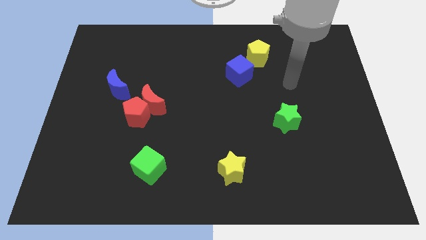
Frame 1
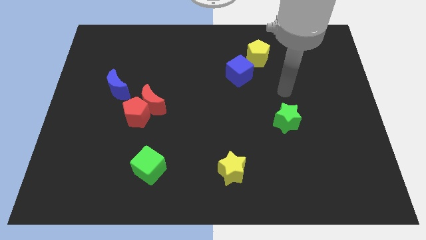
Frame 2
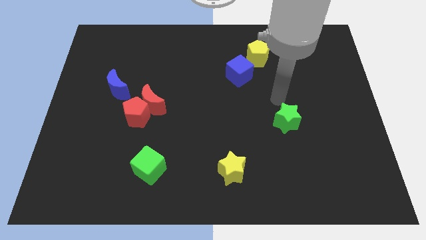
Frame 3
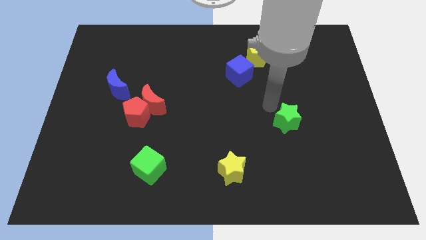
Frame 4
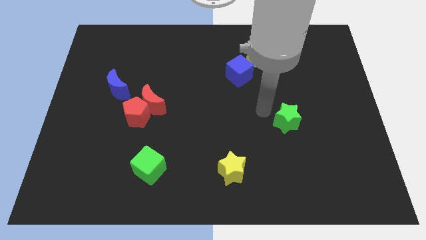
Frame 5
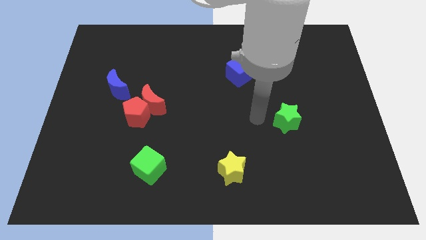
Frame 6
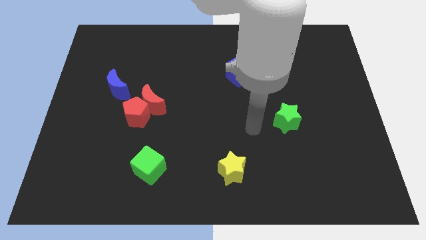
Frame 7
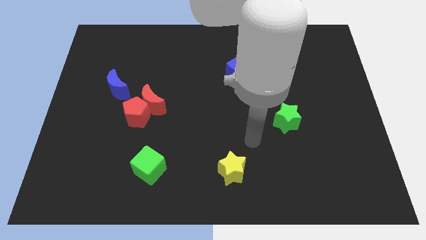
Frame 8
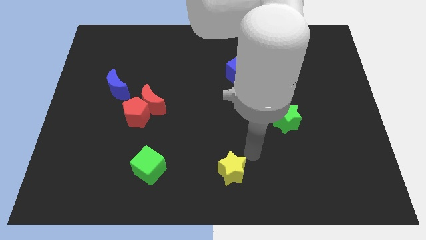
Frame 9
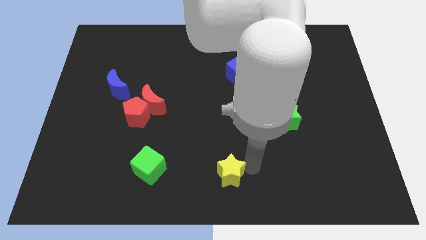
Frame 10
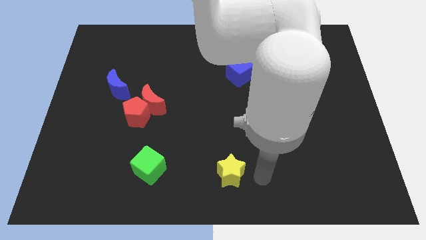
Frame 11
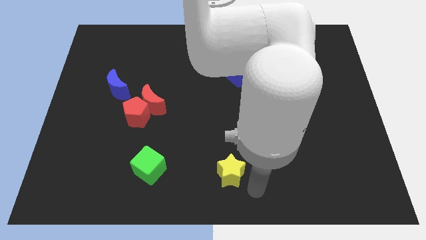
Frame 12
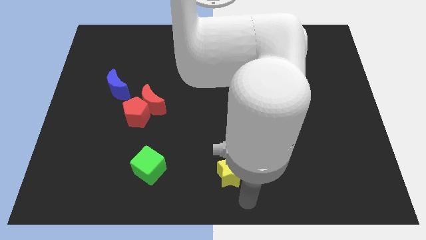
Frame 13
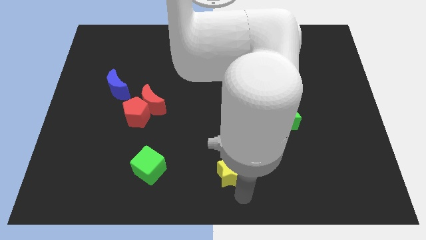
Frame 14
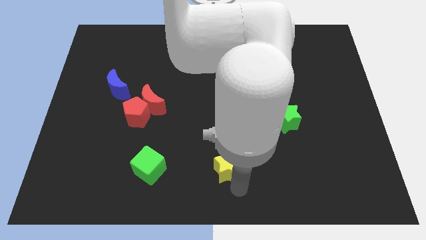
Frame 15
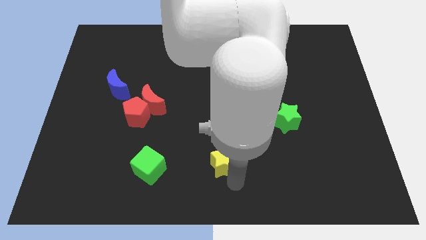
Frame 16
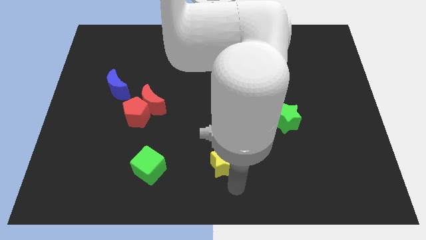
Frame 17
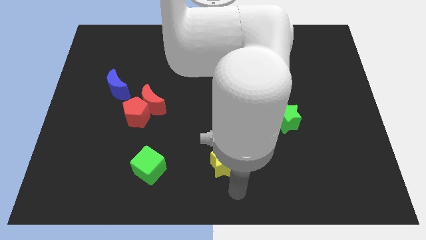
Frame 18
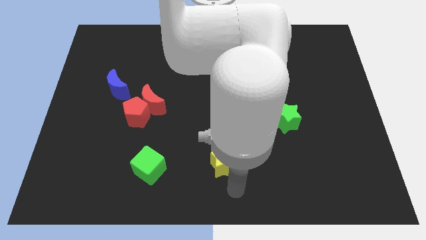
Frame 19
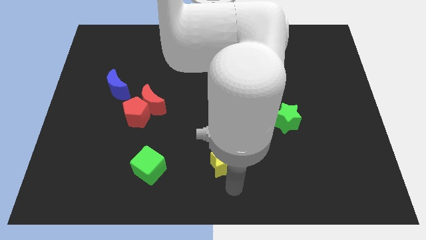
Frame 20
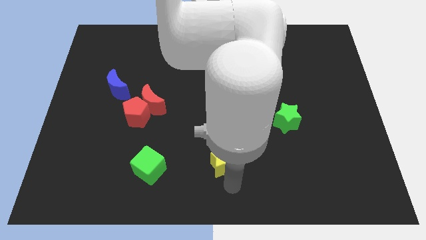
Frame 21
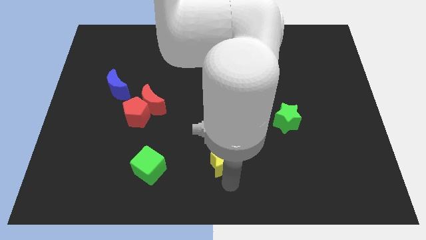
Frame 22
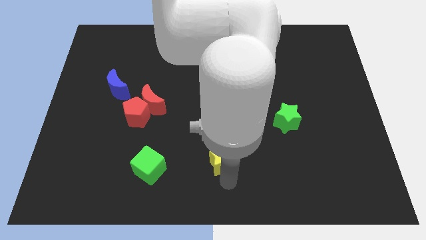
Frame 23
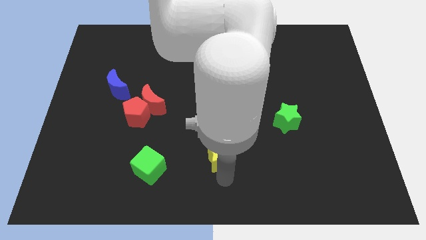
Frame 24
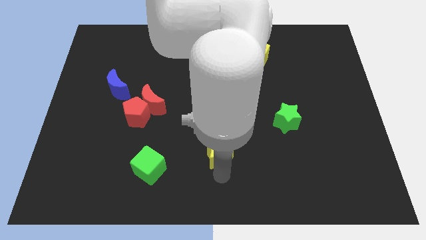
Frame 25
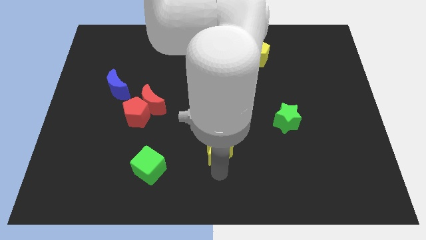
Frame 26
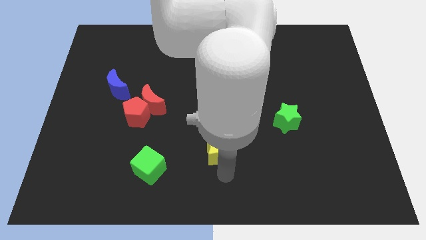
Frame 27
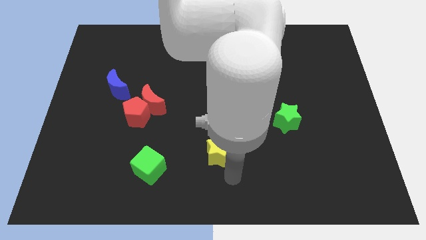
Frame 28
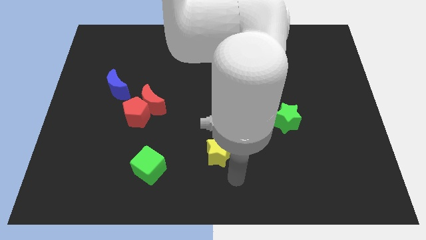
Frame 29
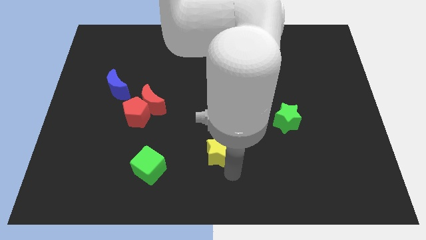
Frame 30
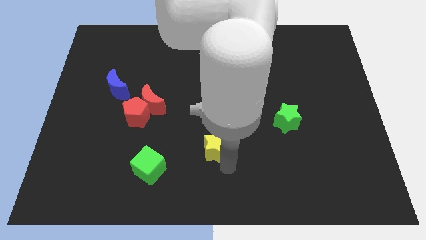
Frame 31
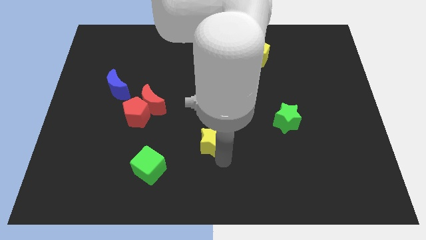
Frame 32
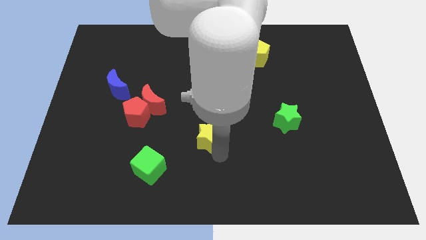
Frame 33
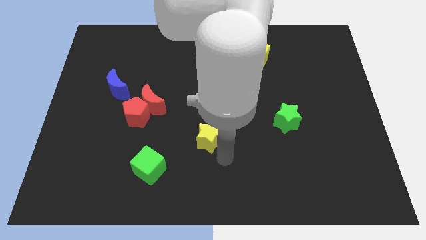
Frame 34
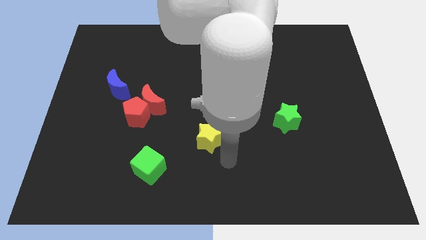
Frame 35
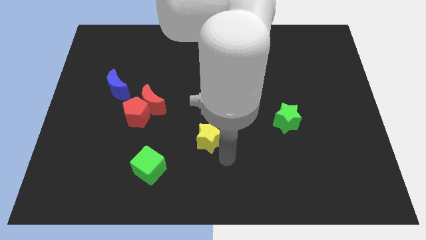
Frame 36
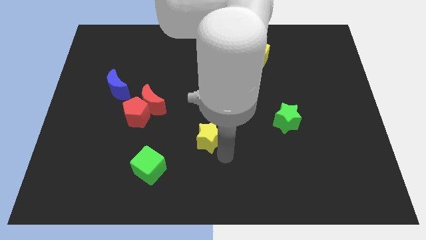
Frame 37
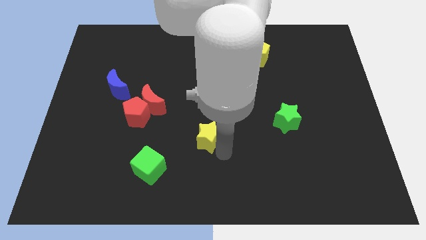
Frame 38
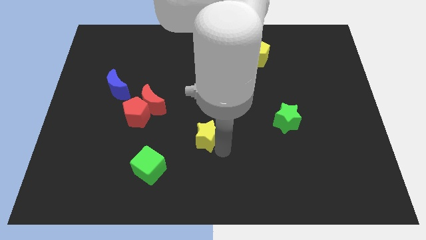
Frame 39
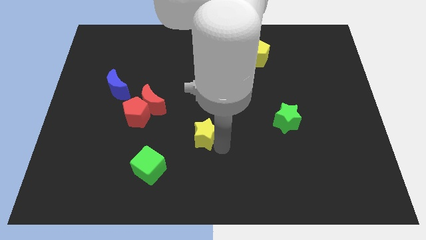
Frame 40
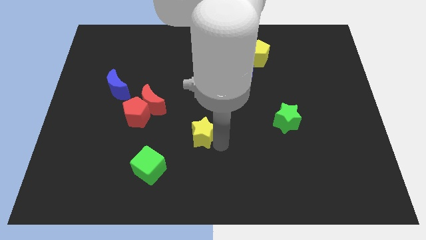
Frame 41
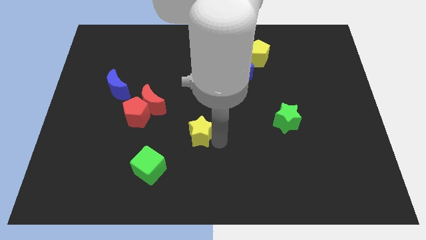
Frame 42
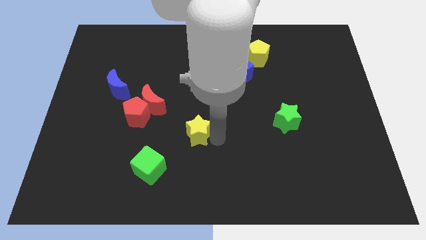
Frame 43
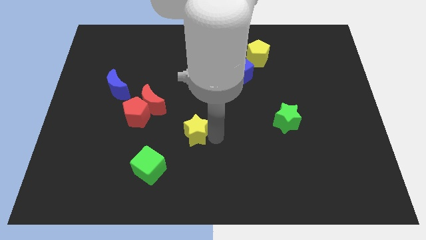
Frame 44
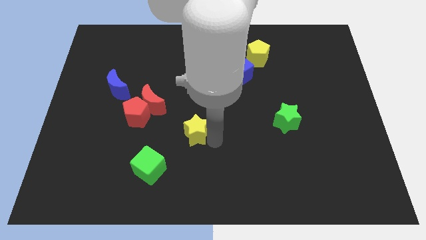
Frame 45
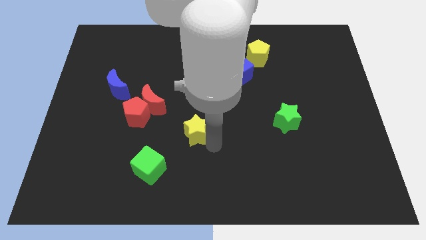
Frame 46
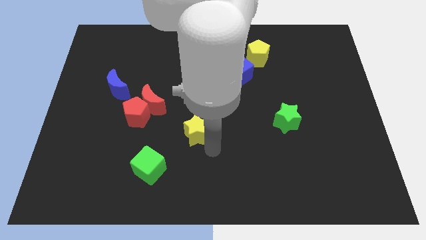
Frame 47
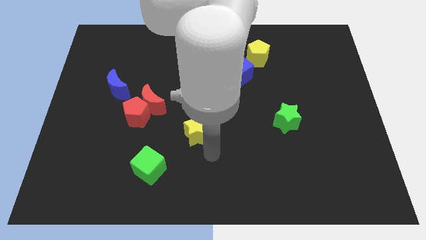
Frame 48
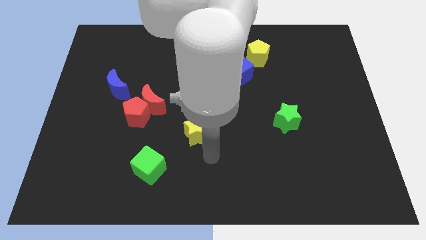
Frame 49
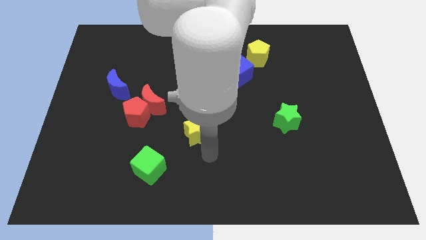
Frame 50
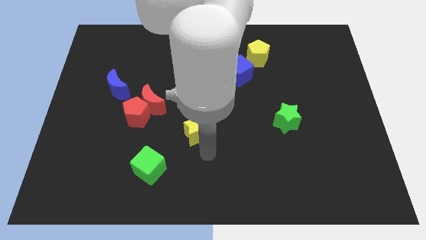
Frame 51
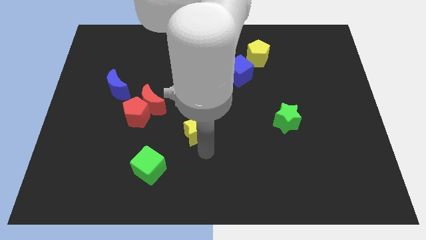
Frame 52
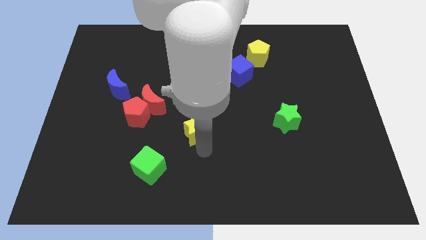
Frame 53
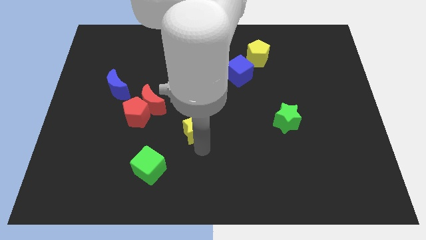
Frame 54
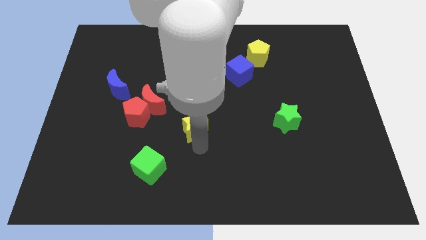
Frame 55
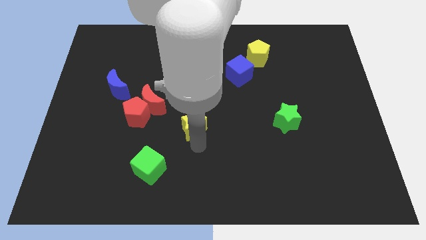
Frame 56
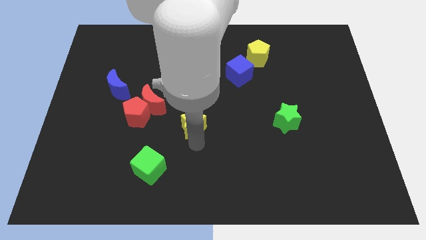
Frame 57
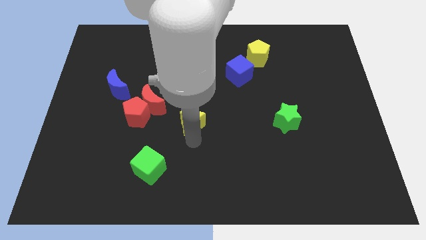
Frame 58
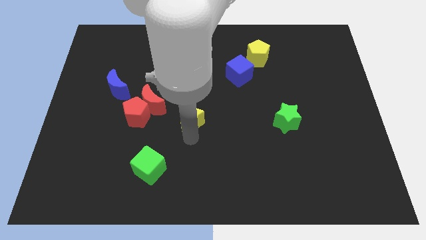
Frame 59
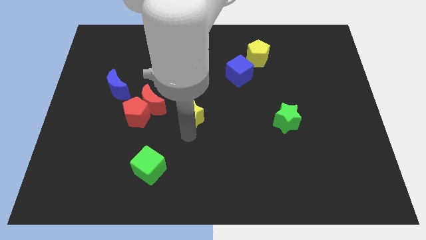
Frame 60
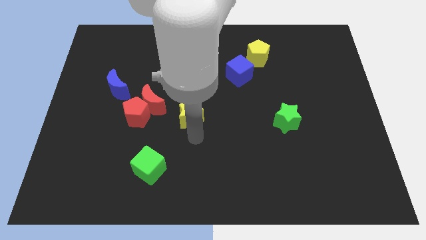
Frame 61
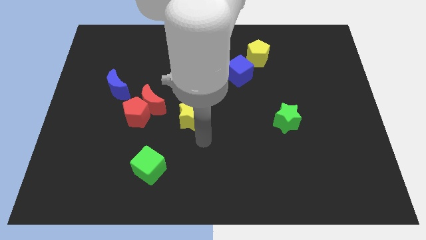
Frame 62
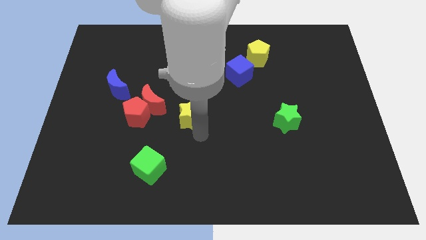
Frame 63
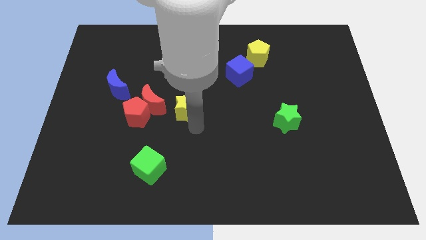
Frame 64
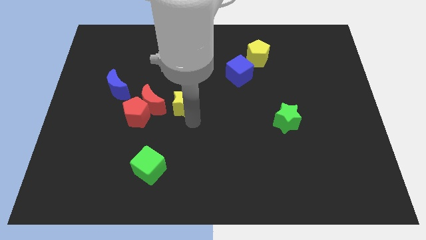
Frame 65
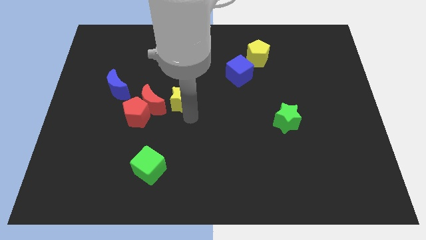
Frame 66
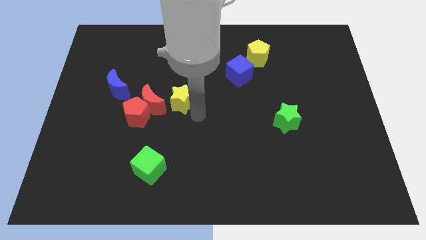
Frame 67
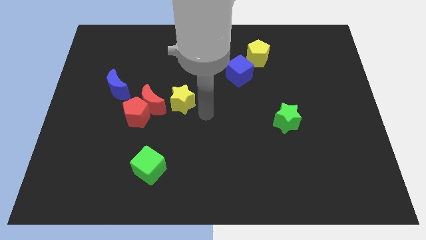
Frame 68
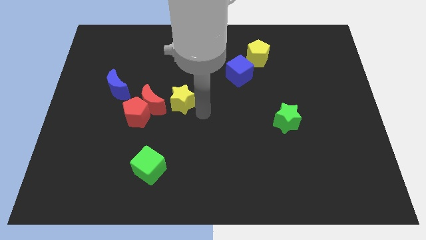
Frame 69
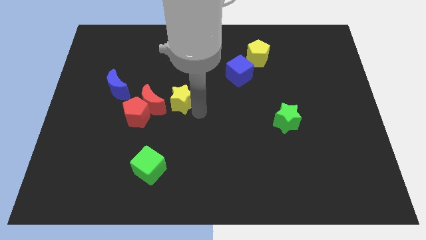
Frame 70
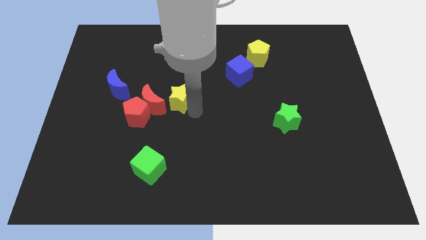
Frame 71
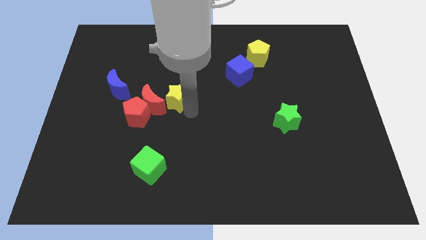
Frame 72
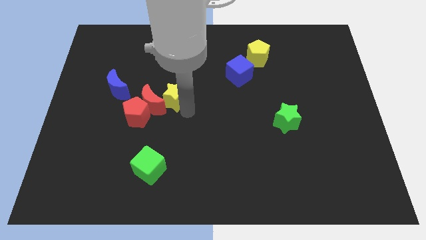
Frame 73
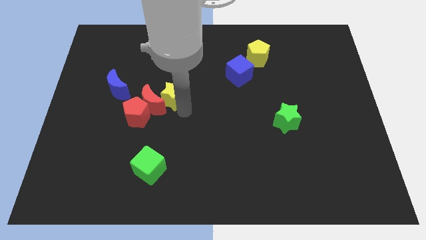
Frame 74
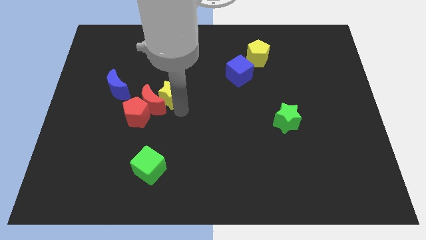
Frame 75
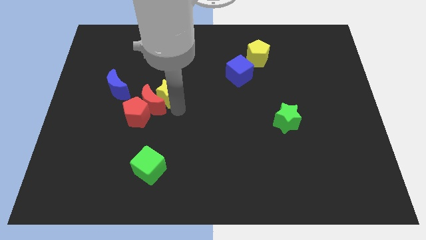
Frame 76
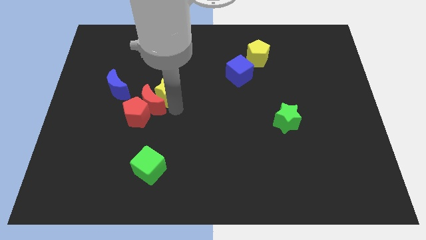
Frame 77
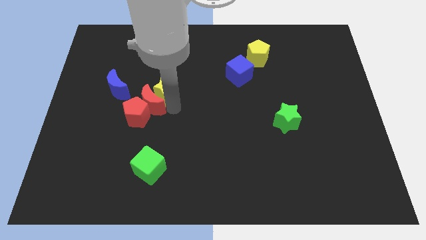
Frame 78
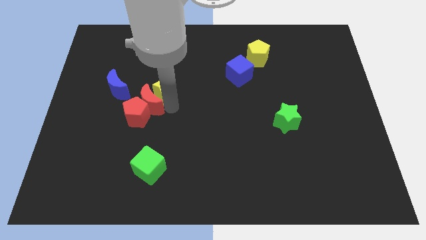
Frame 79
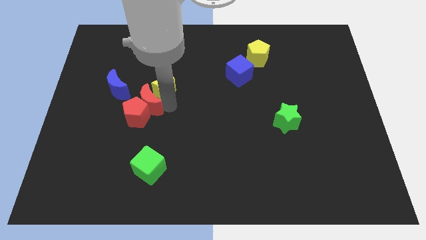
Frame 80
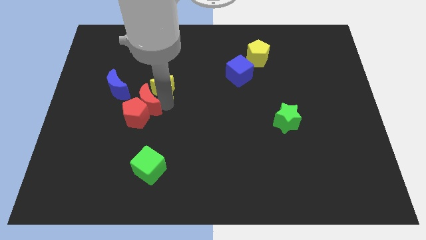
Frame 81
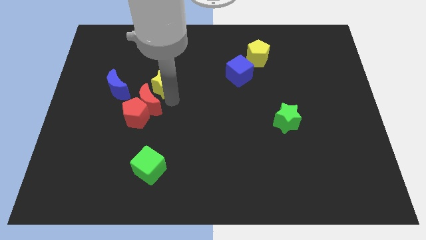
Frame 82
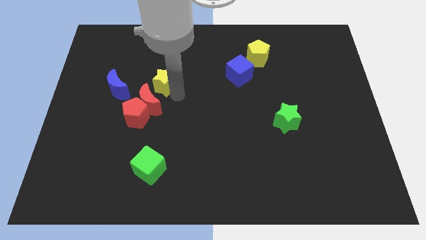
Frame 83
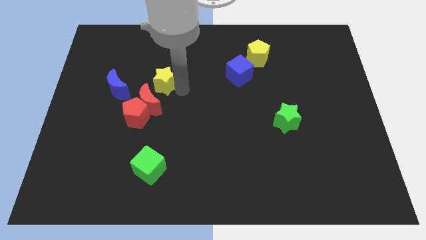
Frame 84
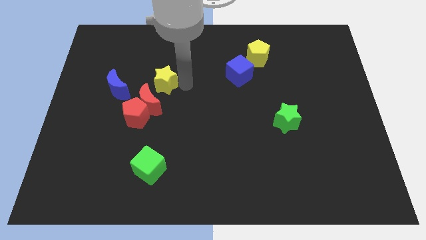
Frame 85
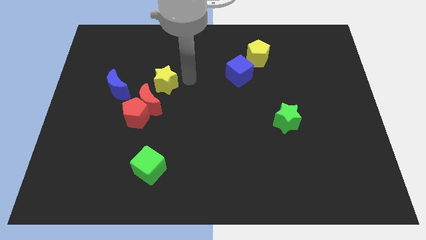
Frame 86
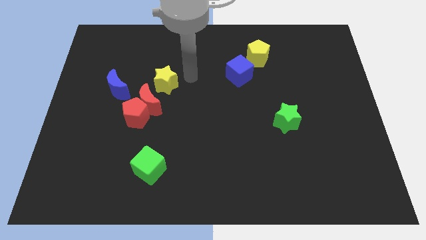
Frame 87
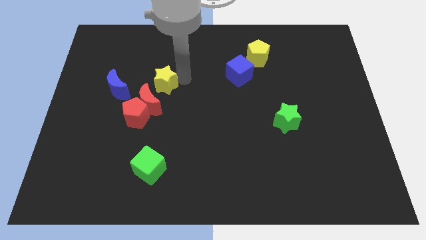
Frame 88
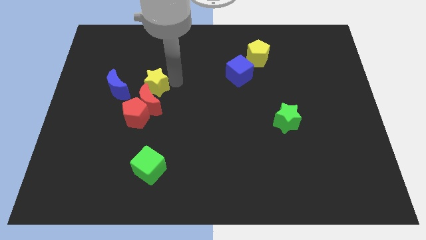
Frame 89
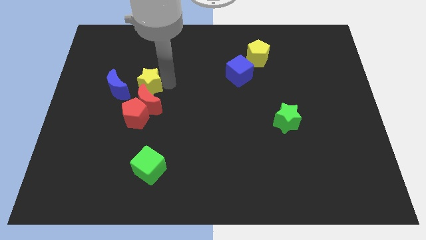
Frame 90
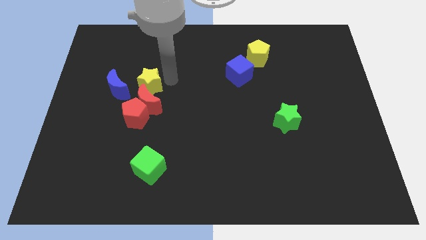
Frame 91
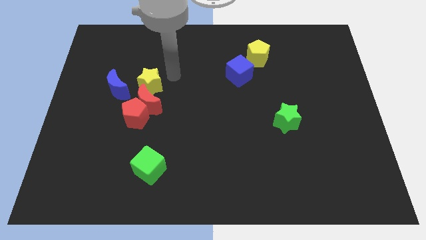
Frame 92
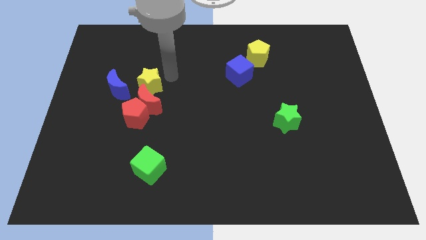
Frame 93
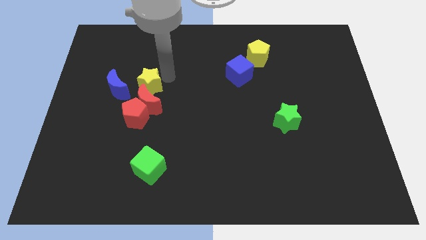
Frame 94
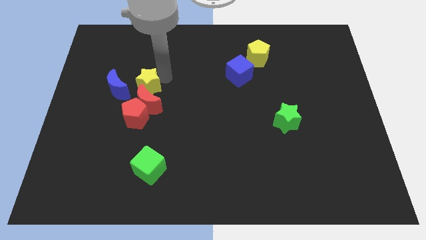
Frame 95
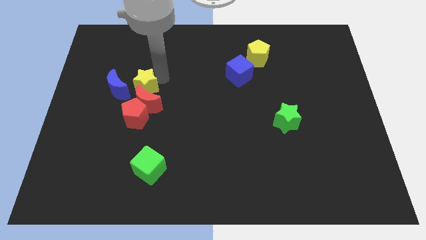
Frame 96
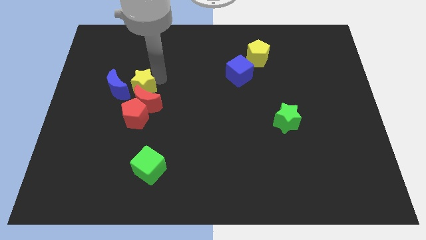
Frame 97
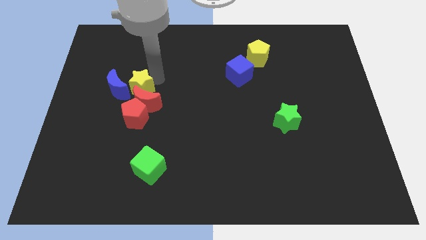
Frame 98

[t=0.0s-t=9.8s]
slide the yellow star next to the blue moon
